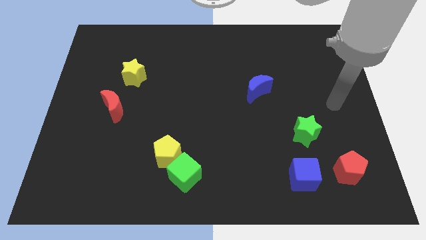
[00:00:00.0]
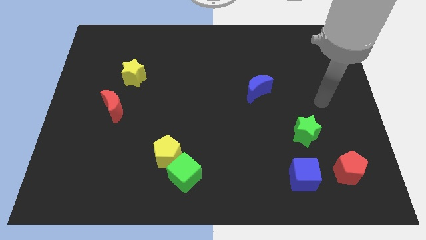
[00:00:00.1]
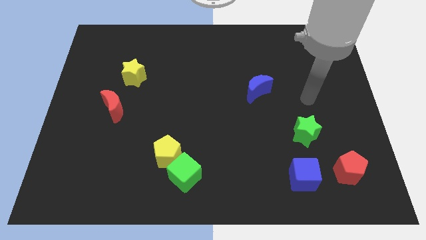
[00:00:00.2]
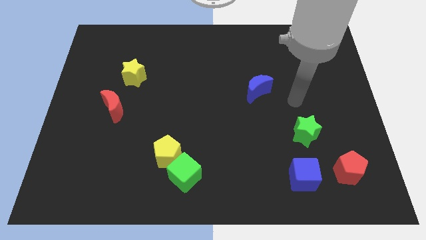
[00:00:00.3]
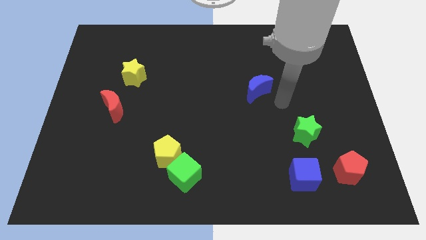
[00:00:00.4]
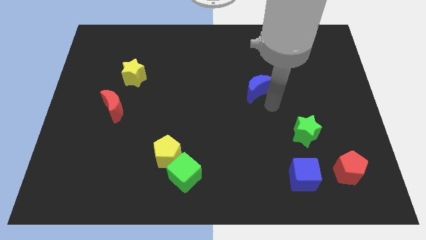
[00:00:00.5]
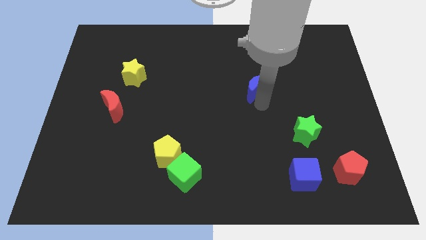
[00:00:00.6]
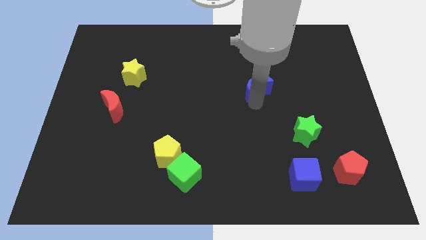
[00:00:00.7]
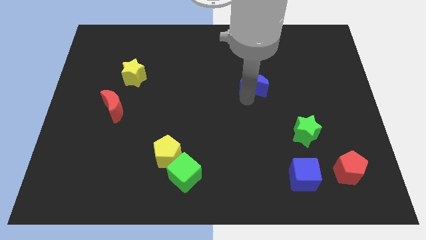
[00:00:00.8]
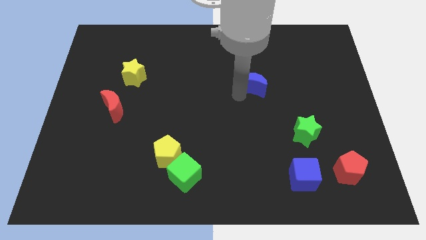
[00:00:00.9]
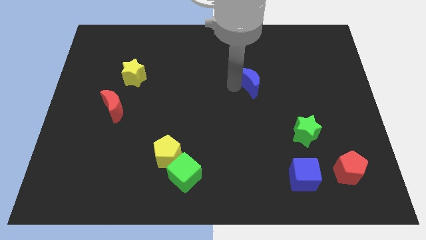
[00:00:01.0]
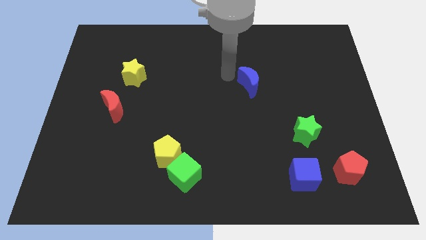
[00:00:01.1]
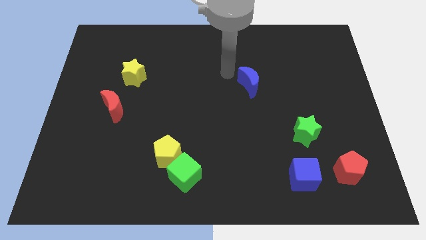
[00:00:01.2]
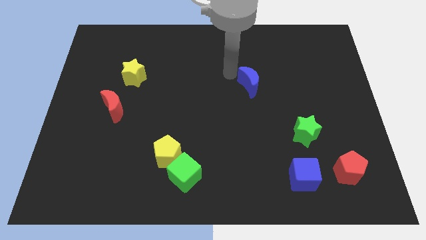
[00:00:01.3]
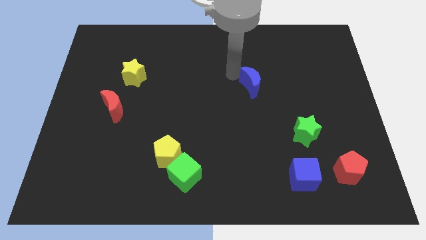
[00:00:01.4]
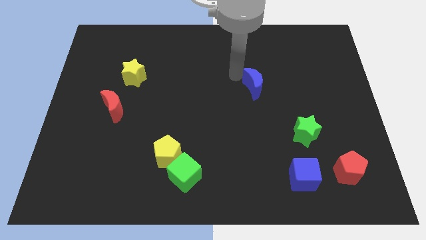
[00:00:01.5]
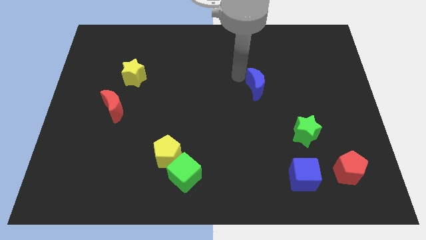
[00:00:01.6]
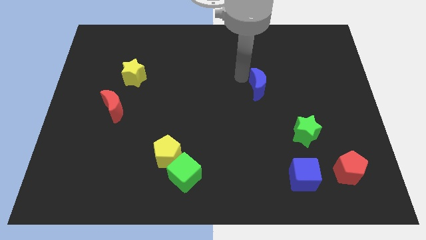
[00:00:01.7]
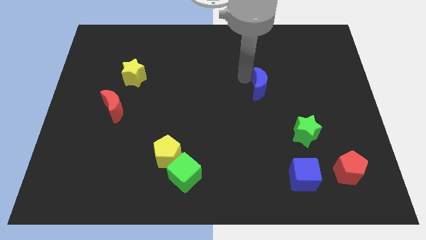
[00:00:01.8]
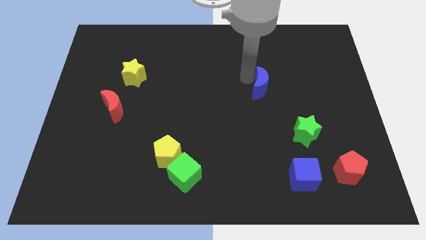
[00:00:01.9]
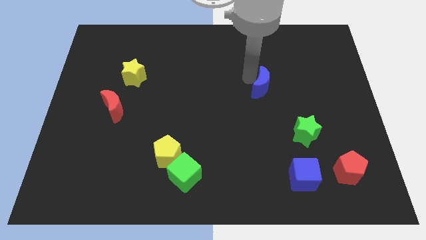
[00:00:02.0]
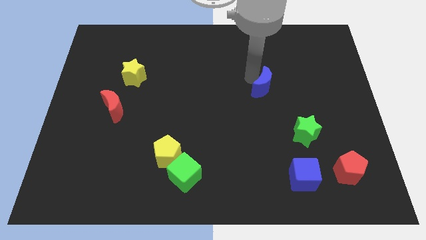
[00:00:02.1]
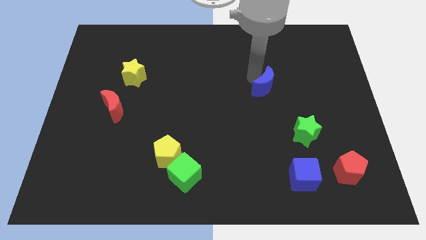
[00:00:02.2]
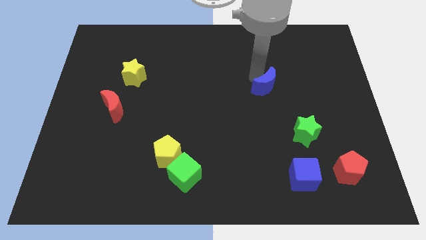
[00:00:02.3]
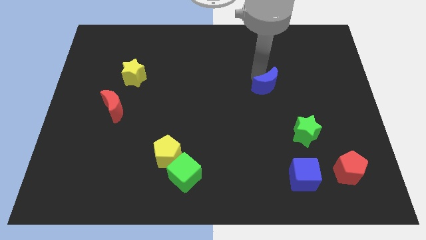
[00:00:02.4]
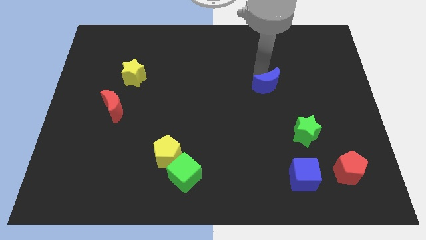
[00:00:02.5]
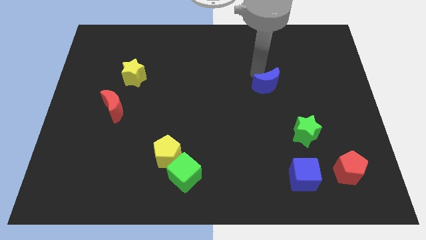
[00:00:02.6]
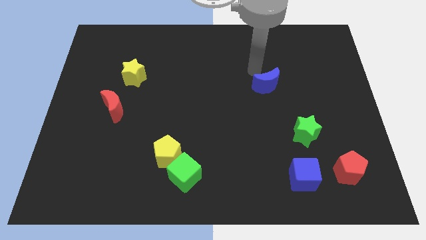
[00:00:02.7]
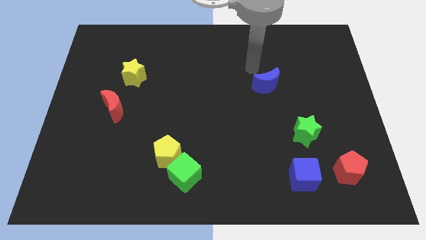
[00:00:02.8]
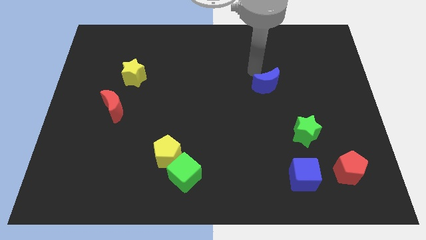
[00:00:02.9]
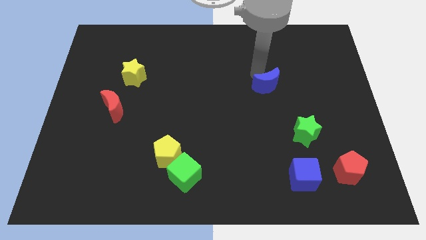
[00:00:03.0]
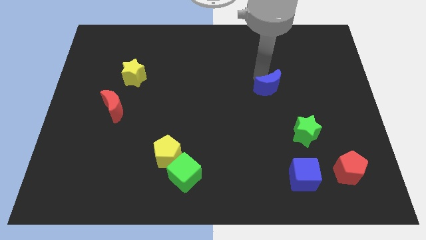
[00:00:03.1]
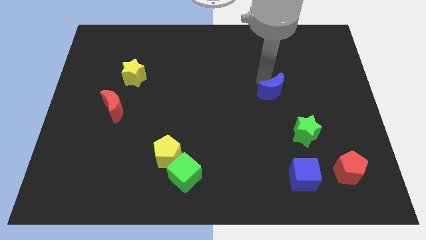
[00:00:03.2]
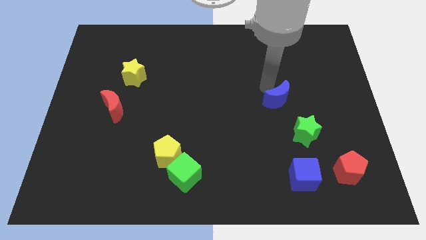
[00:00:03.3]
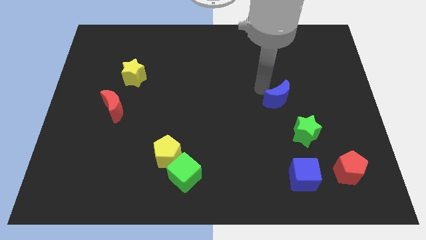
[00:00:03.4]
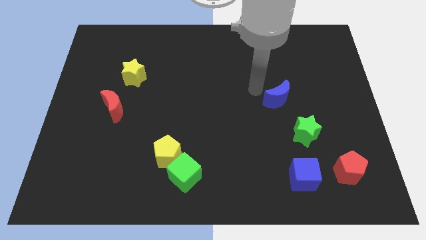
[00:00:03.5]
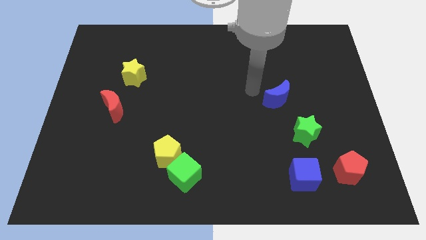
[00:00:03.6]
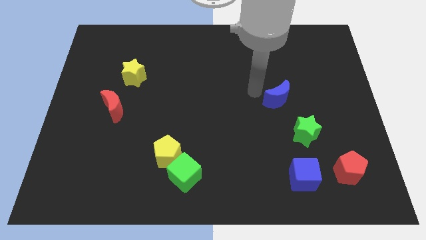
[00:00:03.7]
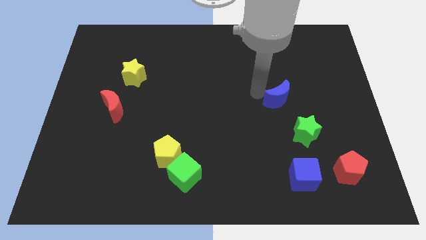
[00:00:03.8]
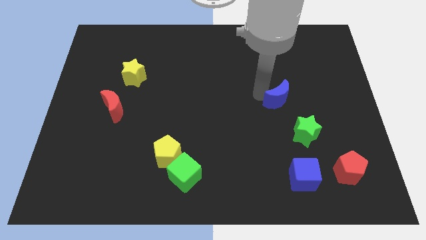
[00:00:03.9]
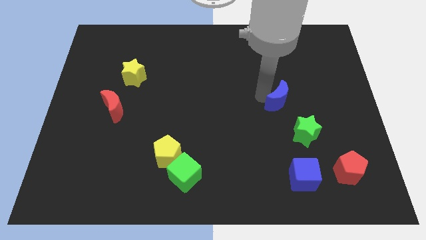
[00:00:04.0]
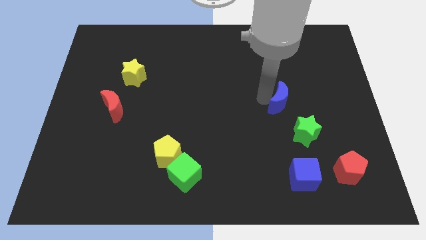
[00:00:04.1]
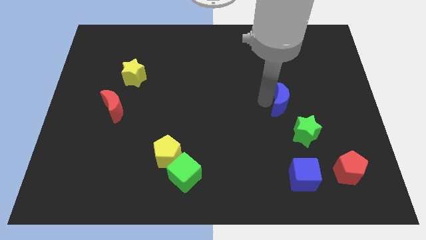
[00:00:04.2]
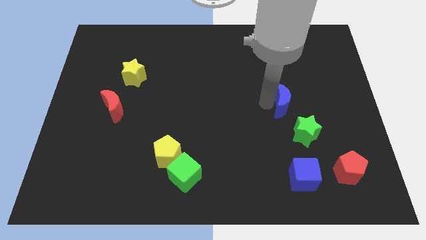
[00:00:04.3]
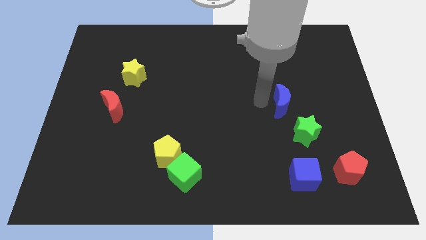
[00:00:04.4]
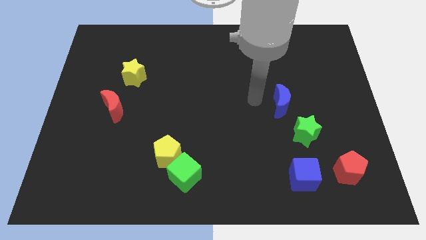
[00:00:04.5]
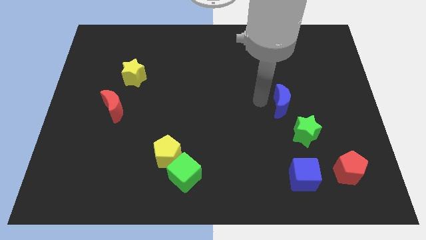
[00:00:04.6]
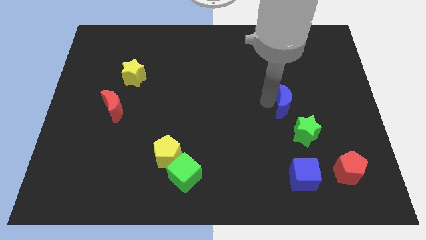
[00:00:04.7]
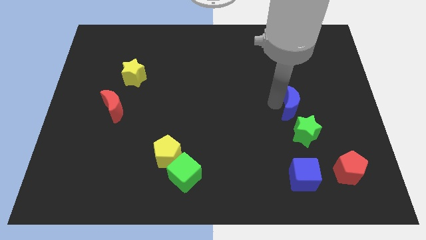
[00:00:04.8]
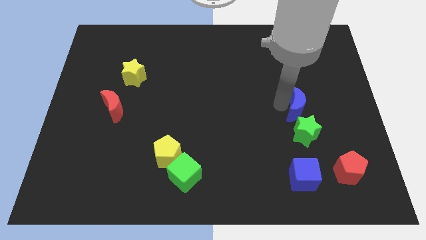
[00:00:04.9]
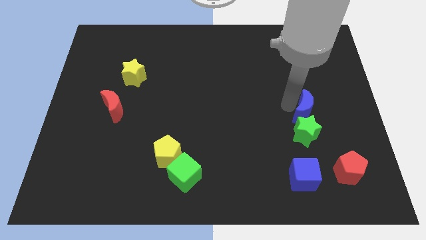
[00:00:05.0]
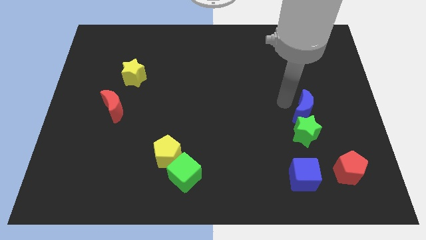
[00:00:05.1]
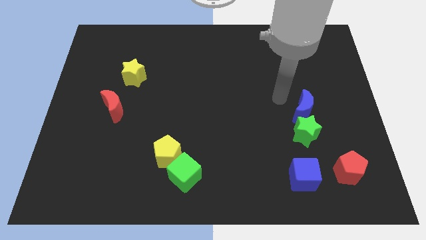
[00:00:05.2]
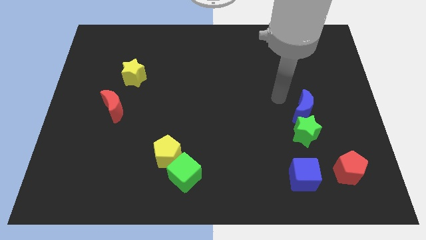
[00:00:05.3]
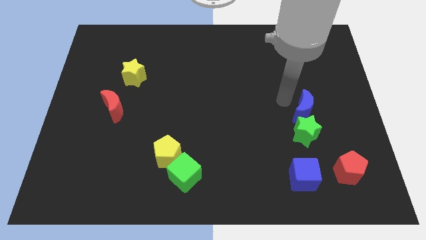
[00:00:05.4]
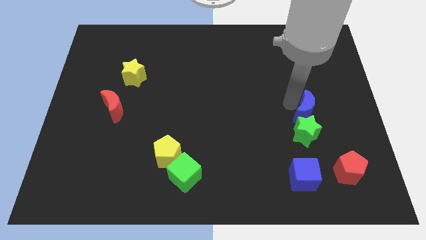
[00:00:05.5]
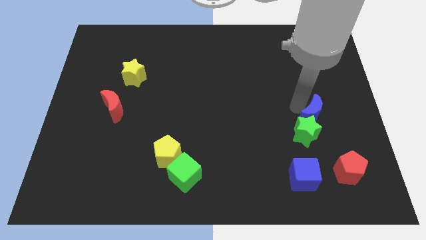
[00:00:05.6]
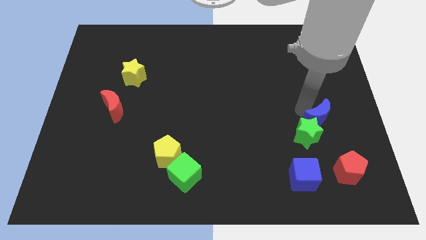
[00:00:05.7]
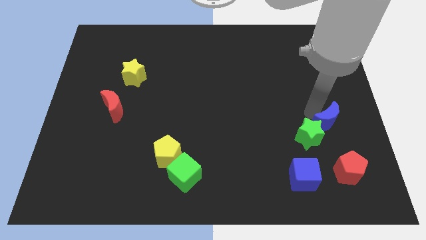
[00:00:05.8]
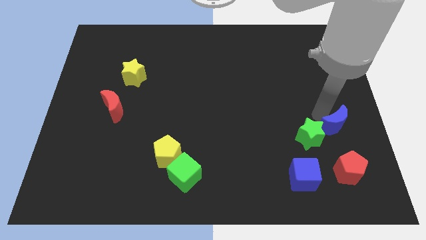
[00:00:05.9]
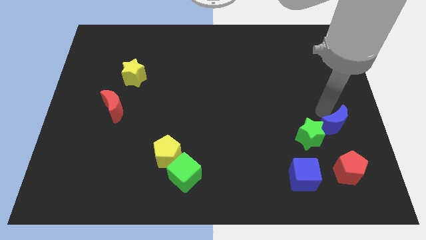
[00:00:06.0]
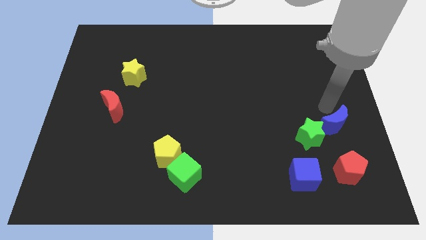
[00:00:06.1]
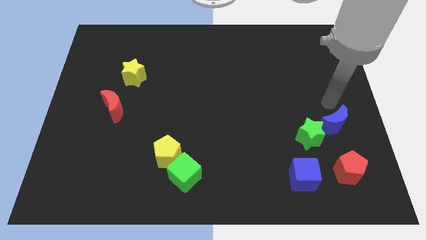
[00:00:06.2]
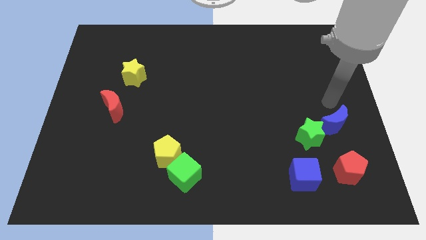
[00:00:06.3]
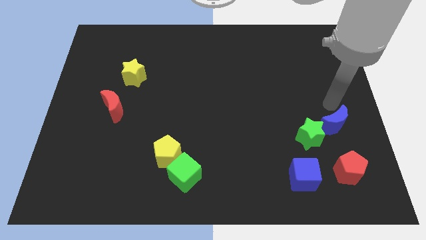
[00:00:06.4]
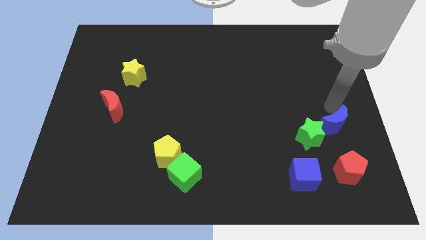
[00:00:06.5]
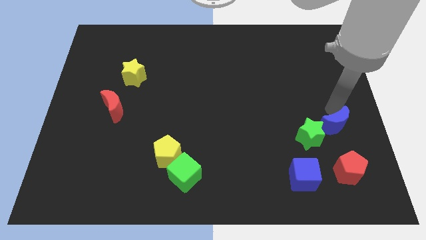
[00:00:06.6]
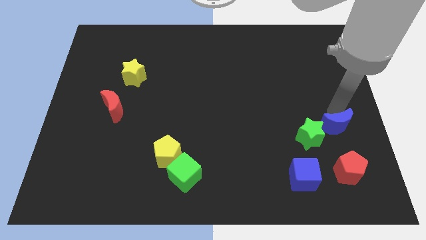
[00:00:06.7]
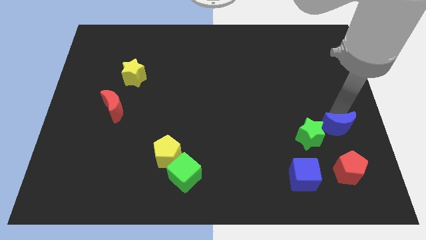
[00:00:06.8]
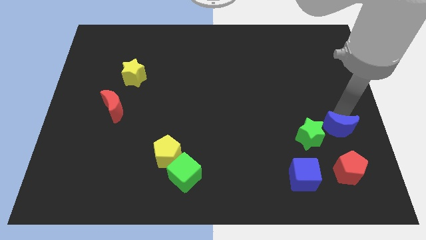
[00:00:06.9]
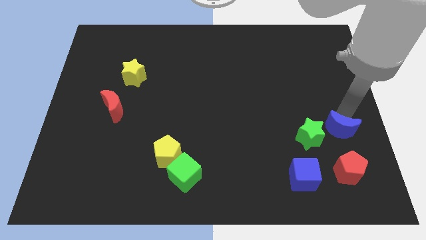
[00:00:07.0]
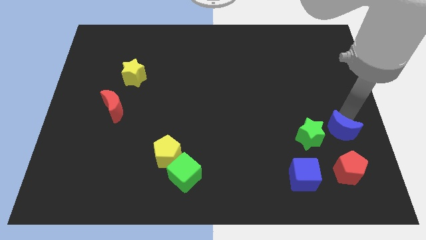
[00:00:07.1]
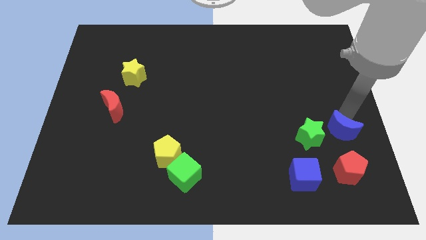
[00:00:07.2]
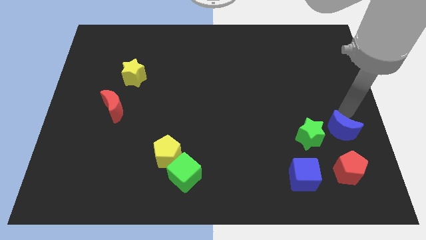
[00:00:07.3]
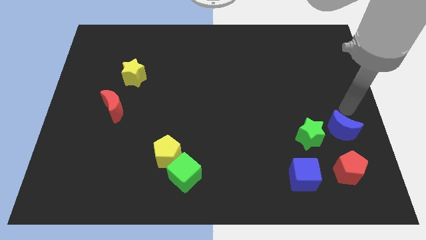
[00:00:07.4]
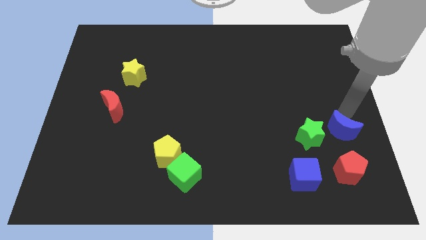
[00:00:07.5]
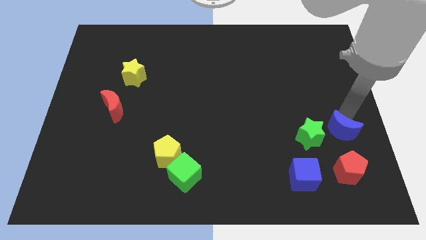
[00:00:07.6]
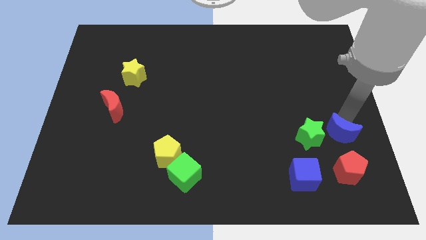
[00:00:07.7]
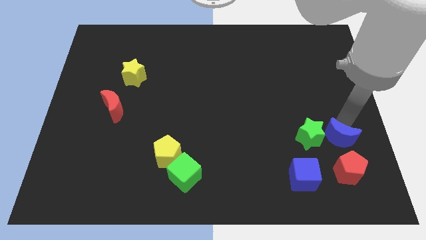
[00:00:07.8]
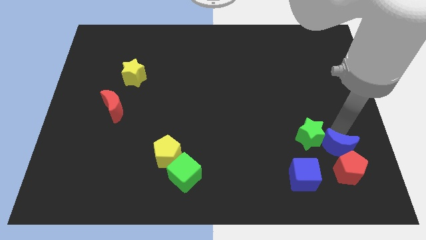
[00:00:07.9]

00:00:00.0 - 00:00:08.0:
slide the blue moon towards the red pentagon
